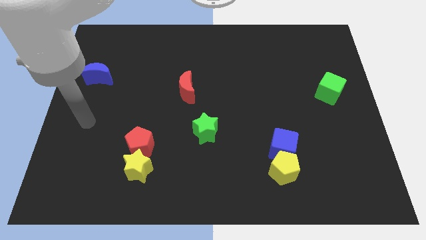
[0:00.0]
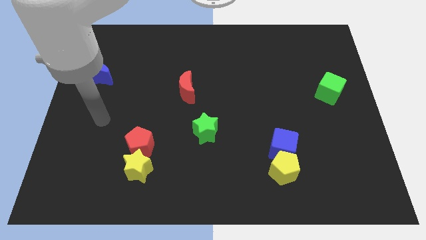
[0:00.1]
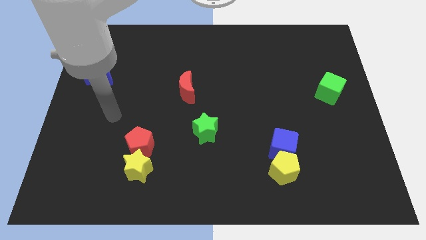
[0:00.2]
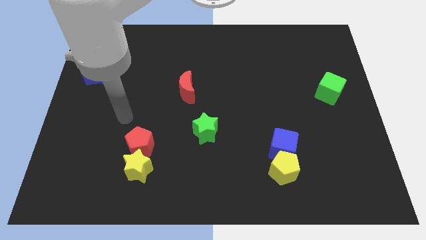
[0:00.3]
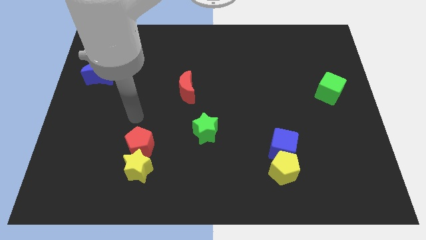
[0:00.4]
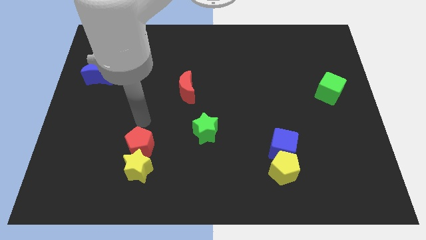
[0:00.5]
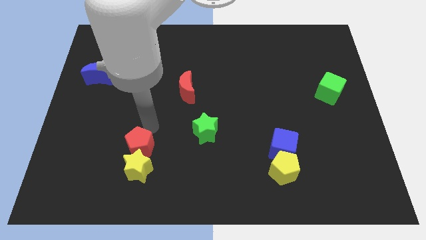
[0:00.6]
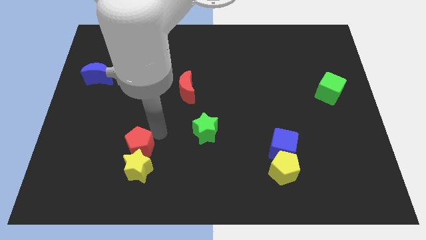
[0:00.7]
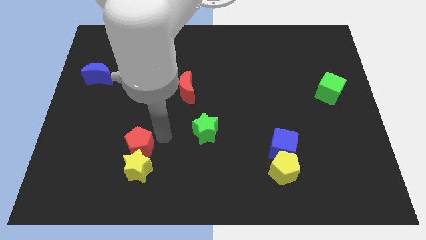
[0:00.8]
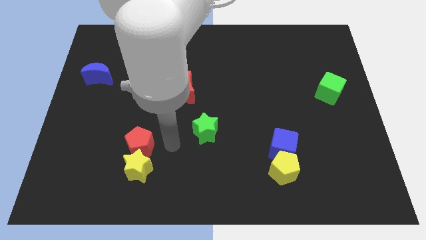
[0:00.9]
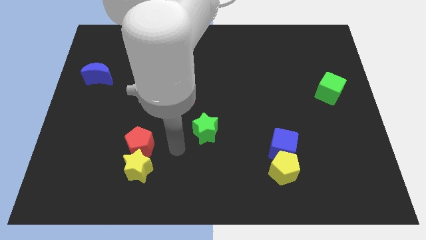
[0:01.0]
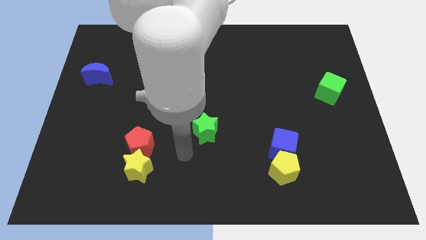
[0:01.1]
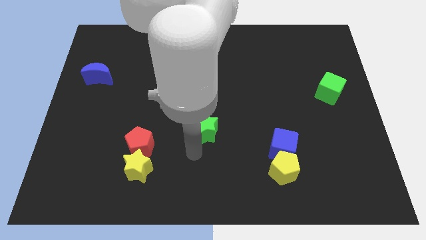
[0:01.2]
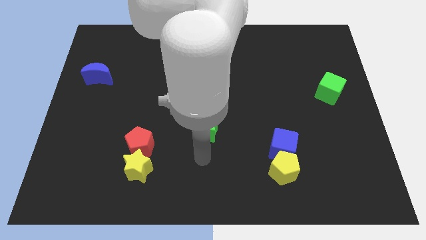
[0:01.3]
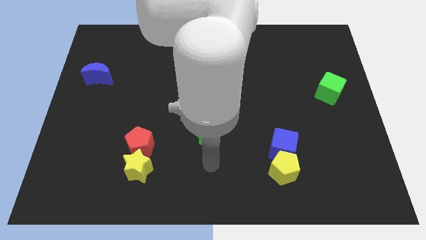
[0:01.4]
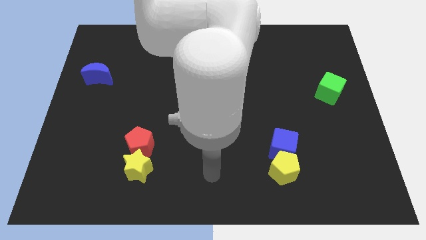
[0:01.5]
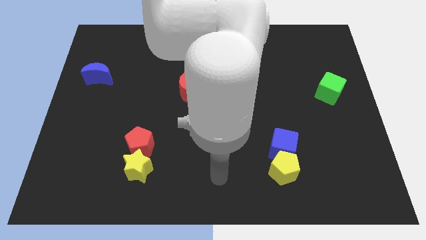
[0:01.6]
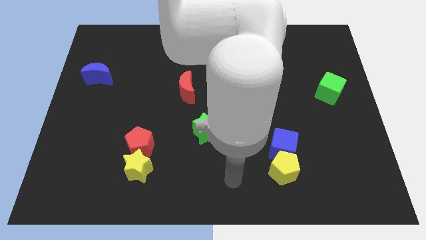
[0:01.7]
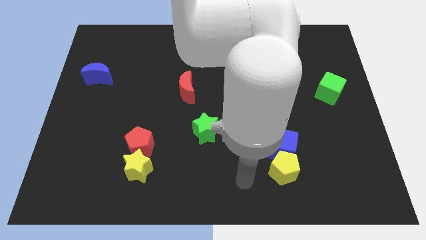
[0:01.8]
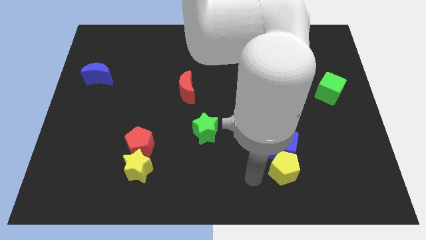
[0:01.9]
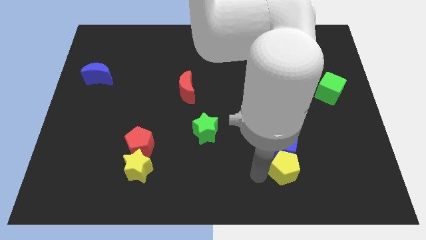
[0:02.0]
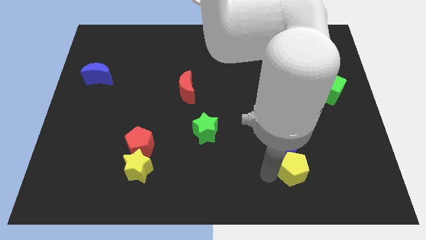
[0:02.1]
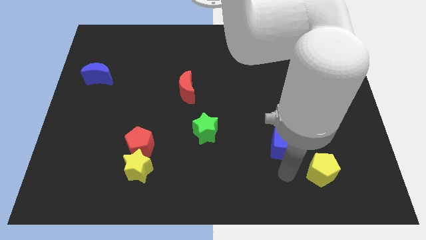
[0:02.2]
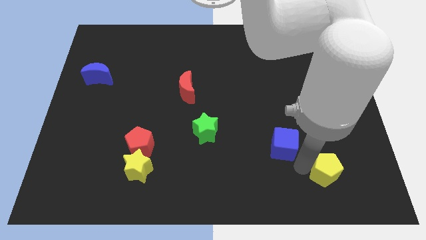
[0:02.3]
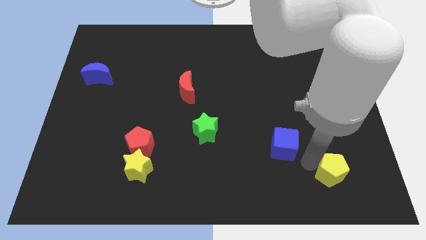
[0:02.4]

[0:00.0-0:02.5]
separate the blue cube from the yellow pentagon

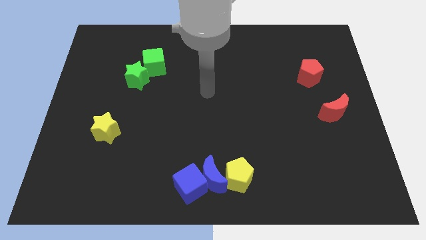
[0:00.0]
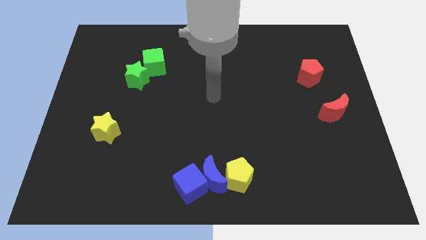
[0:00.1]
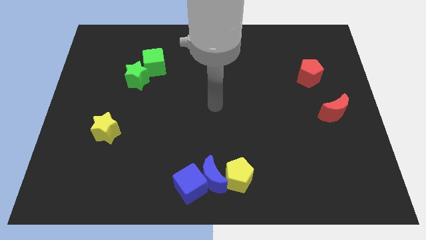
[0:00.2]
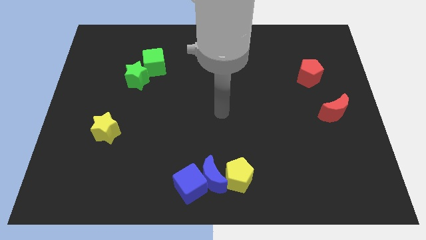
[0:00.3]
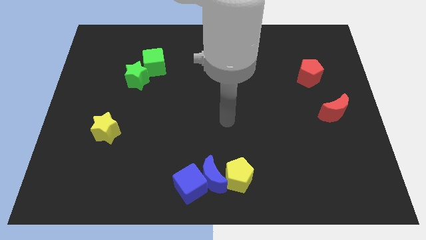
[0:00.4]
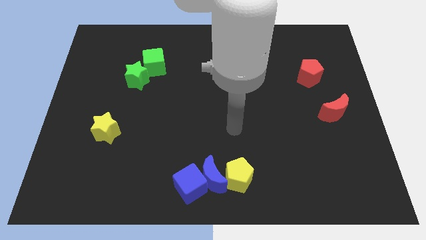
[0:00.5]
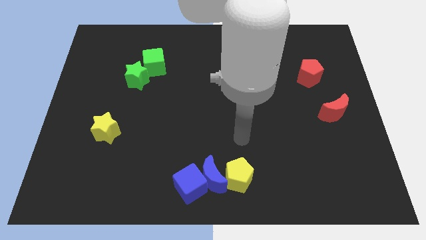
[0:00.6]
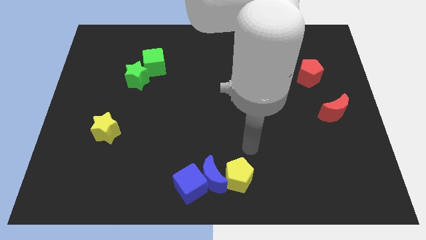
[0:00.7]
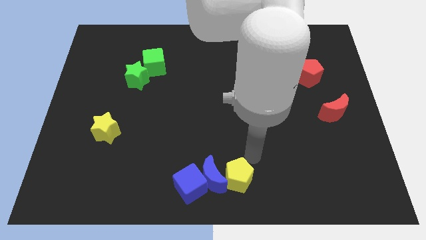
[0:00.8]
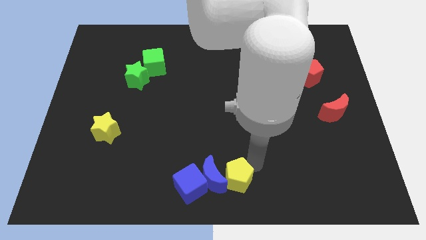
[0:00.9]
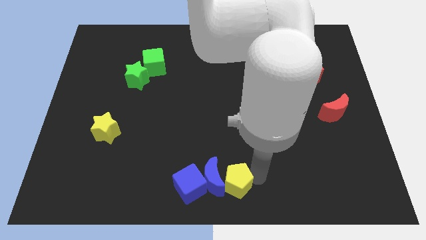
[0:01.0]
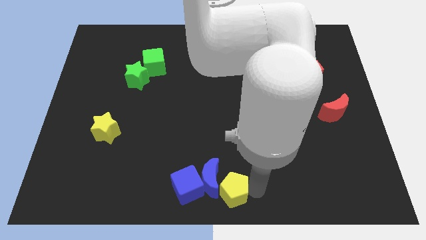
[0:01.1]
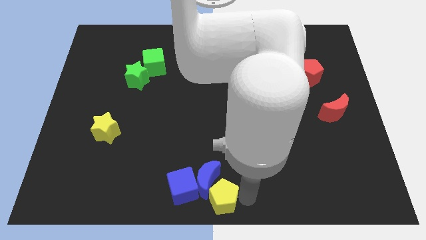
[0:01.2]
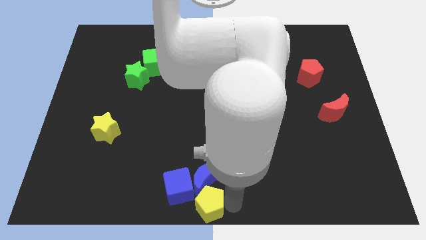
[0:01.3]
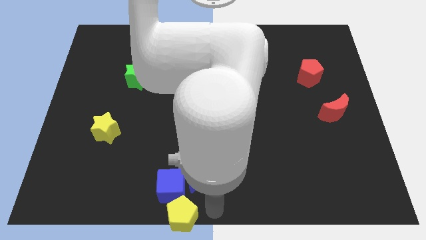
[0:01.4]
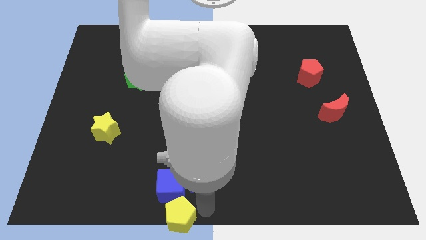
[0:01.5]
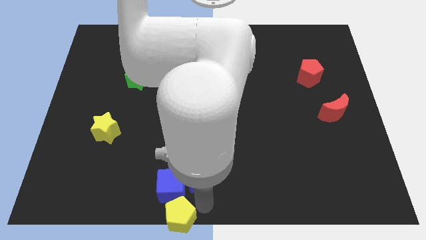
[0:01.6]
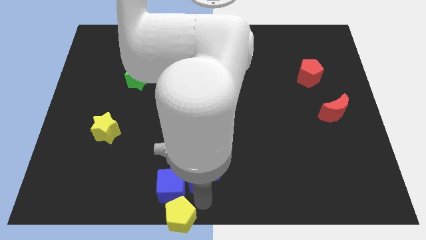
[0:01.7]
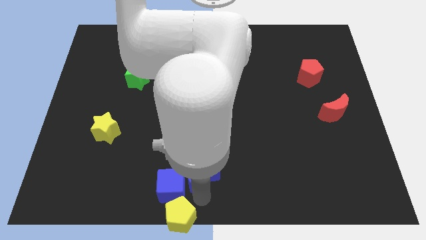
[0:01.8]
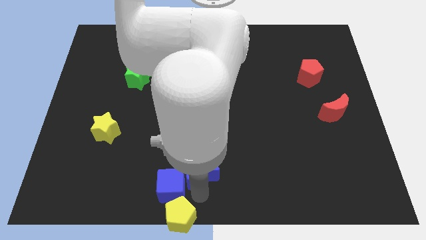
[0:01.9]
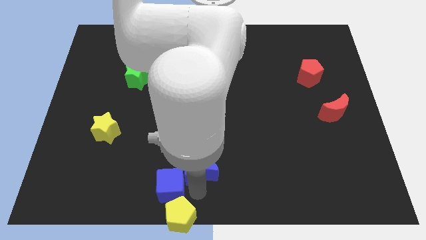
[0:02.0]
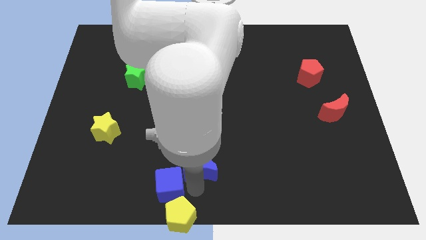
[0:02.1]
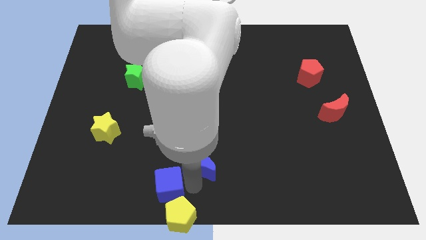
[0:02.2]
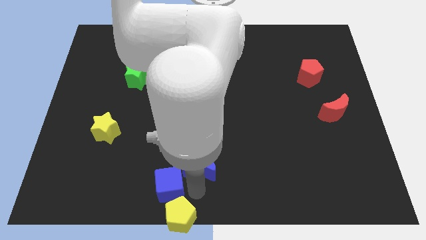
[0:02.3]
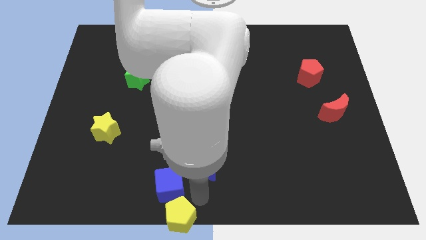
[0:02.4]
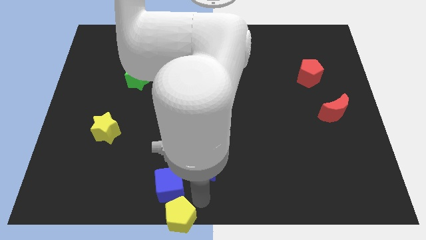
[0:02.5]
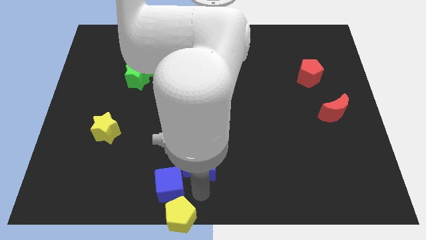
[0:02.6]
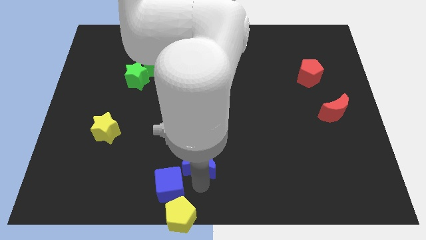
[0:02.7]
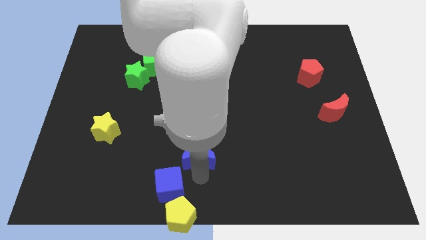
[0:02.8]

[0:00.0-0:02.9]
pull the blue moon apart from the blue cube and yellow pentagon

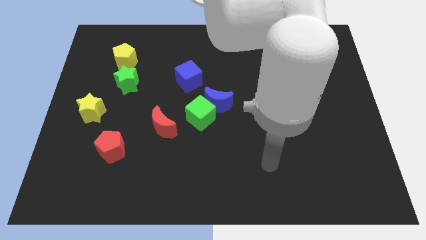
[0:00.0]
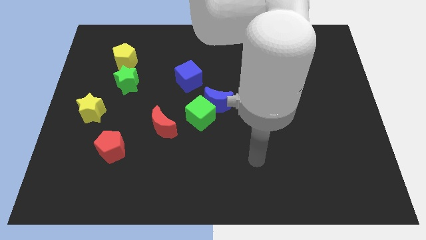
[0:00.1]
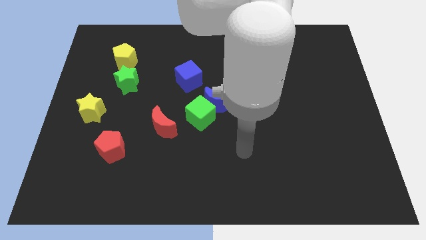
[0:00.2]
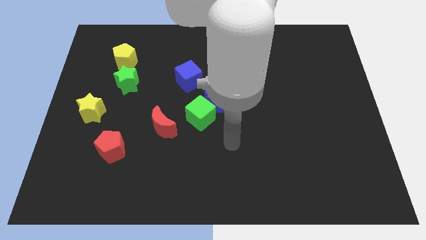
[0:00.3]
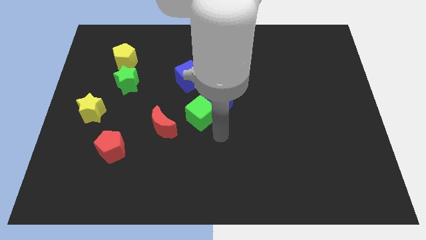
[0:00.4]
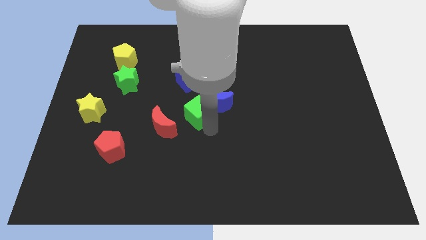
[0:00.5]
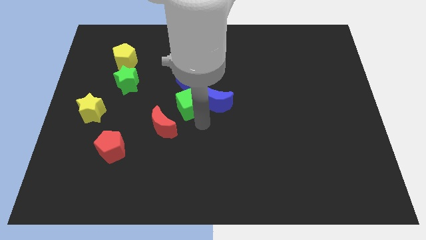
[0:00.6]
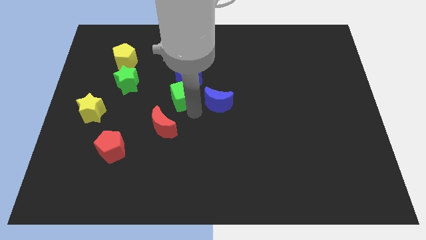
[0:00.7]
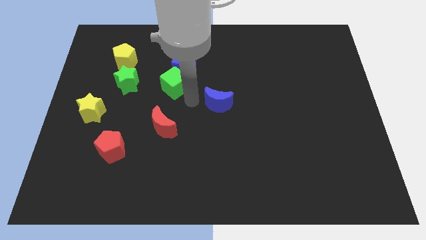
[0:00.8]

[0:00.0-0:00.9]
pull the blue moon apart from the green cube

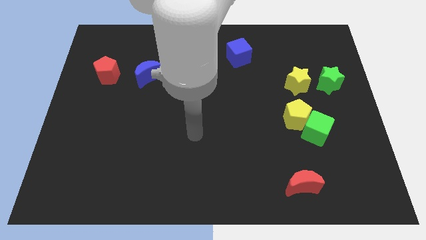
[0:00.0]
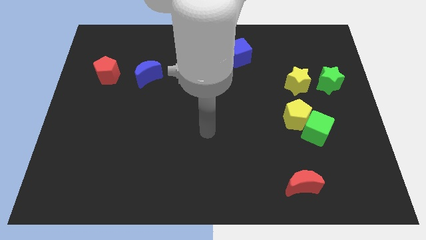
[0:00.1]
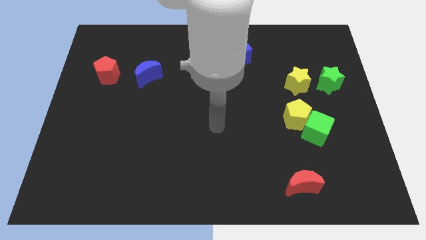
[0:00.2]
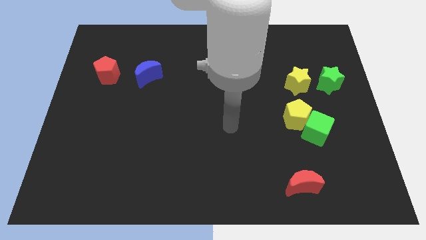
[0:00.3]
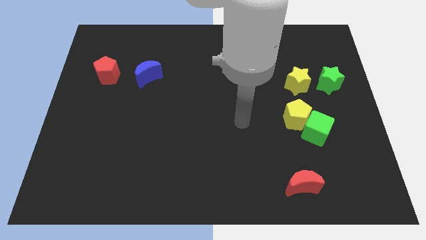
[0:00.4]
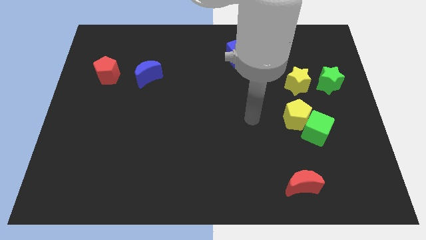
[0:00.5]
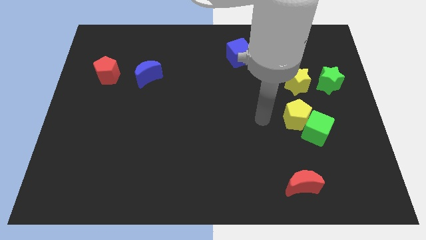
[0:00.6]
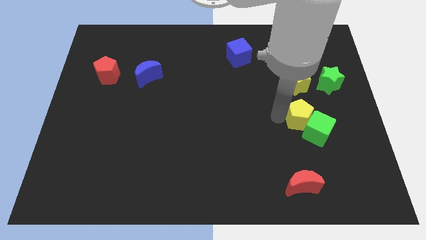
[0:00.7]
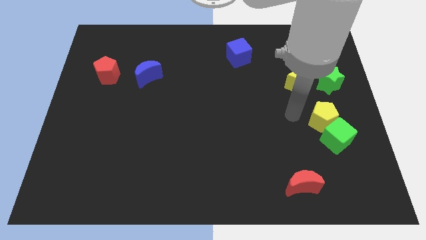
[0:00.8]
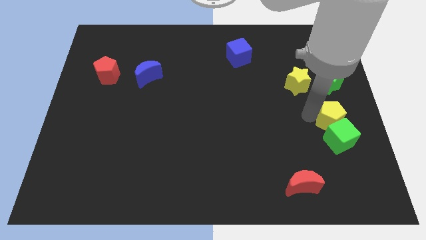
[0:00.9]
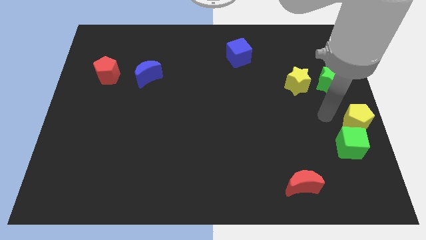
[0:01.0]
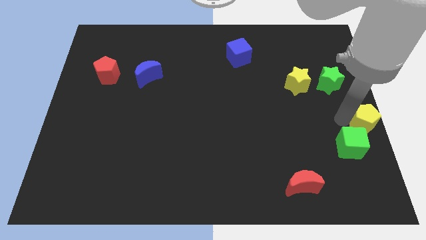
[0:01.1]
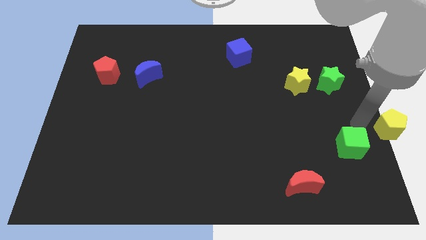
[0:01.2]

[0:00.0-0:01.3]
move the green cube away from the yellow pentagon

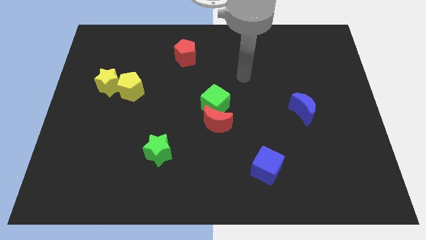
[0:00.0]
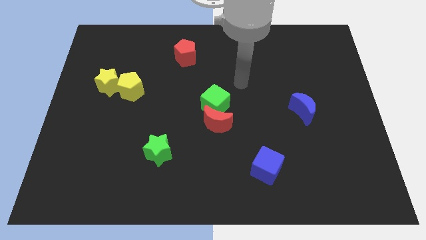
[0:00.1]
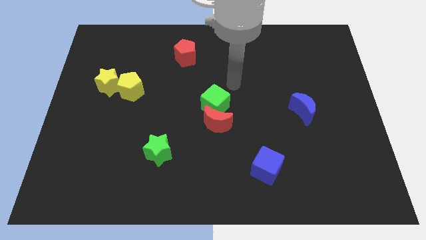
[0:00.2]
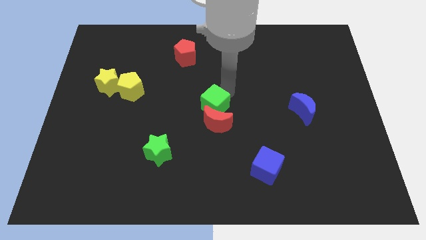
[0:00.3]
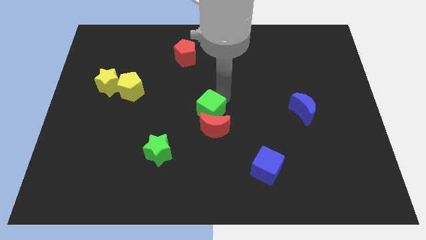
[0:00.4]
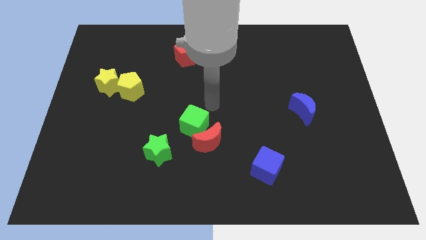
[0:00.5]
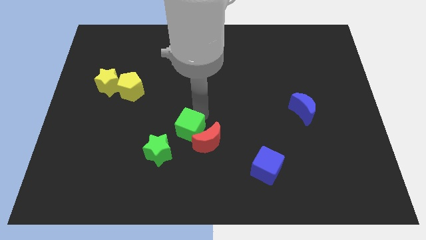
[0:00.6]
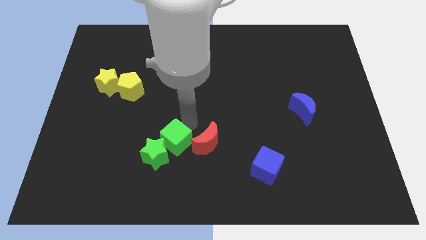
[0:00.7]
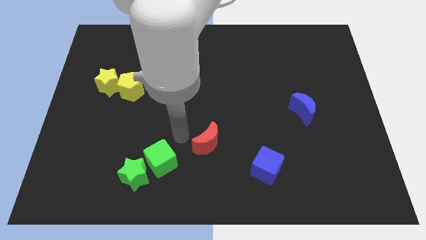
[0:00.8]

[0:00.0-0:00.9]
pull the red moon apart from the green cube

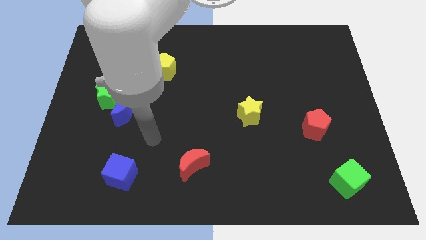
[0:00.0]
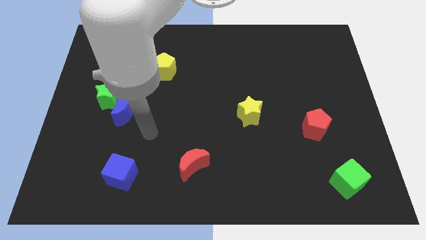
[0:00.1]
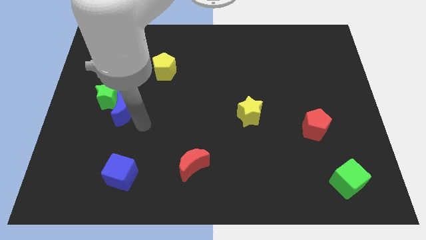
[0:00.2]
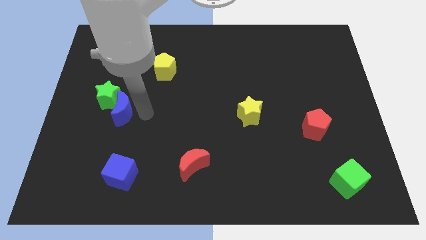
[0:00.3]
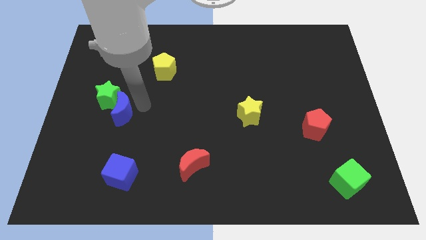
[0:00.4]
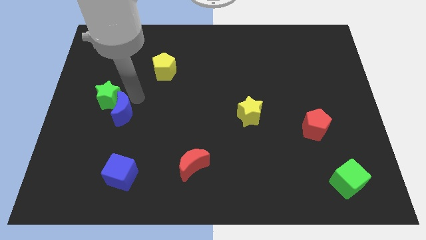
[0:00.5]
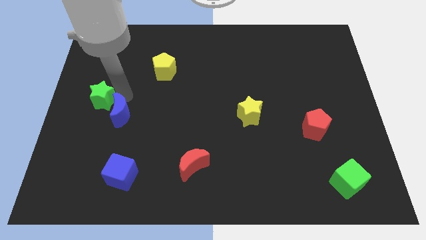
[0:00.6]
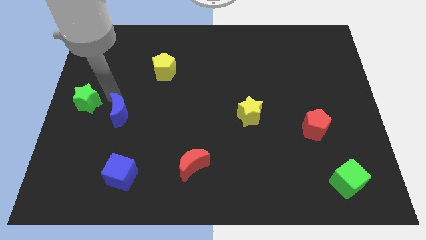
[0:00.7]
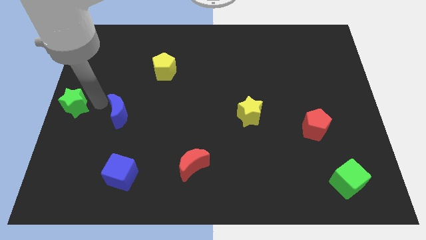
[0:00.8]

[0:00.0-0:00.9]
separate the blue moon from the green star
